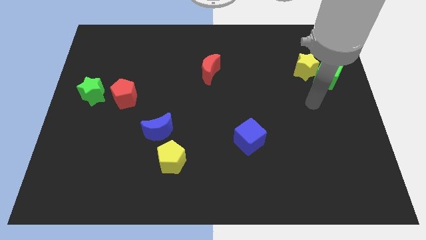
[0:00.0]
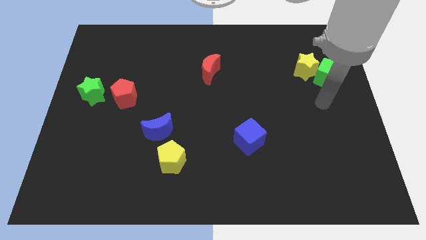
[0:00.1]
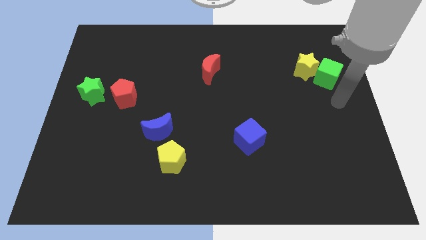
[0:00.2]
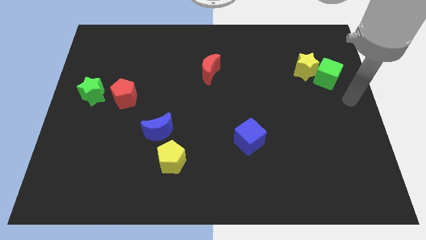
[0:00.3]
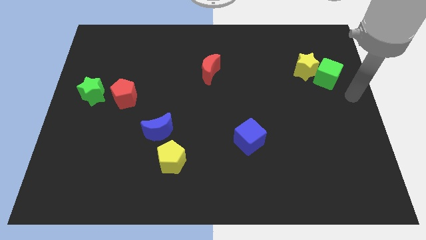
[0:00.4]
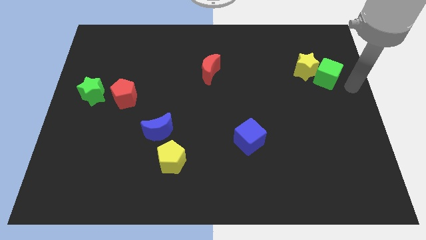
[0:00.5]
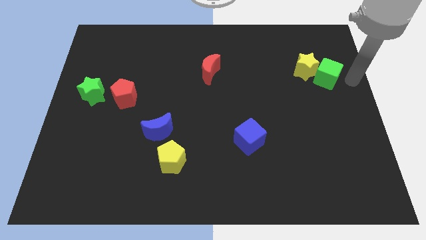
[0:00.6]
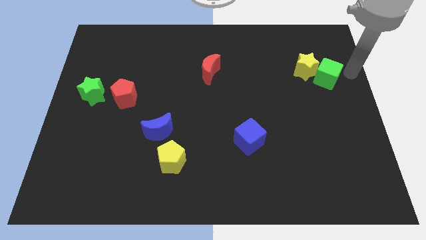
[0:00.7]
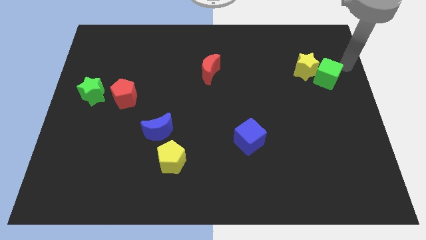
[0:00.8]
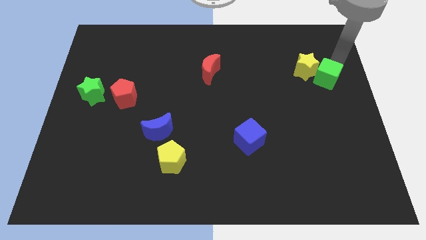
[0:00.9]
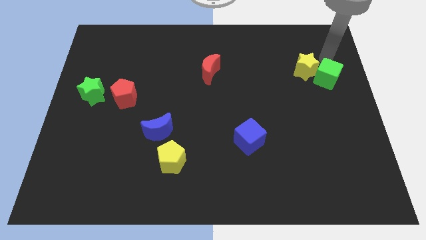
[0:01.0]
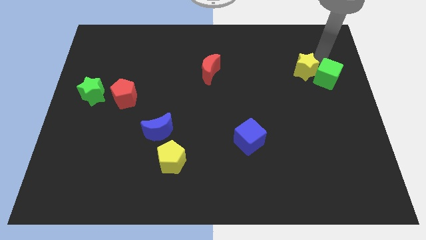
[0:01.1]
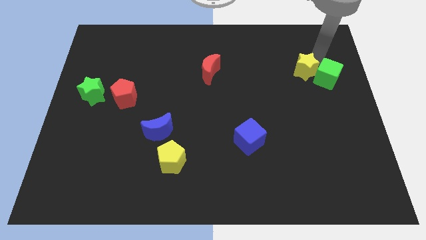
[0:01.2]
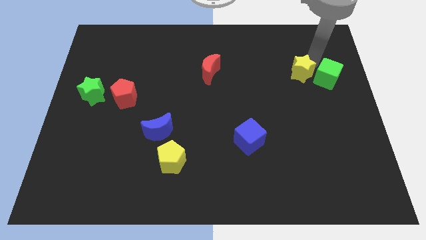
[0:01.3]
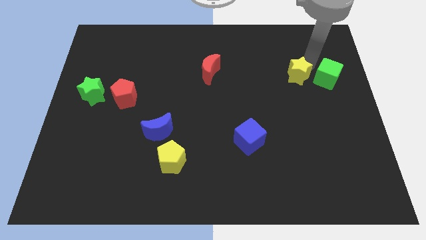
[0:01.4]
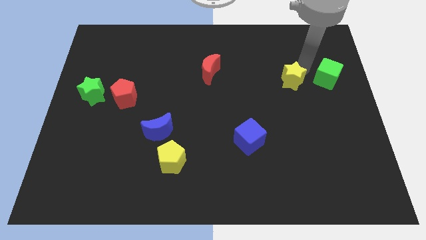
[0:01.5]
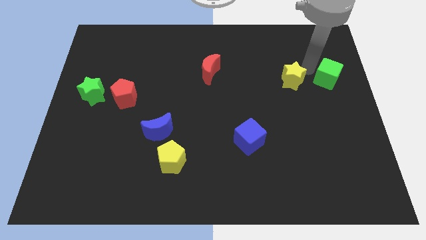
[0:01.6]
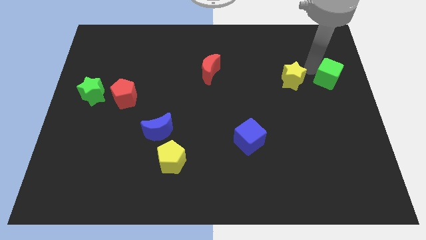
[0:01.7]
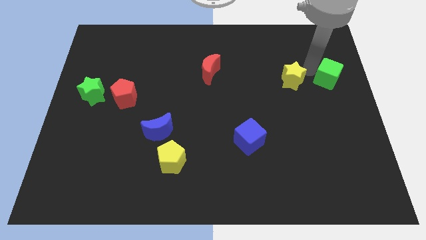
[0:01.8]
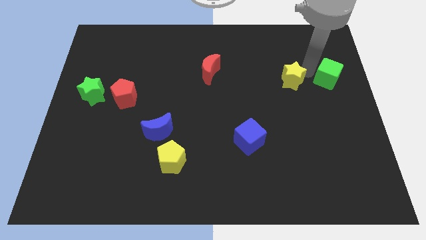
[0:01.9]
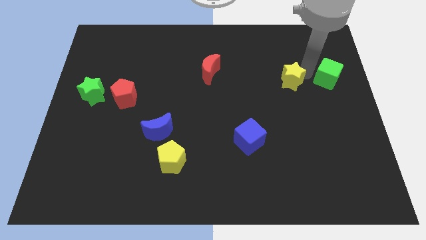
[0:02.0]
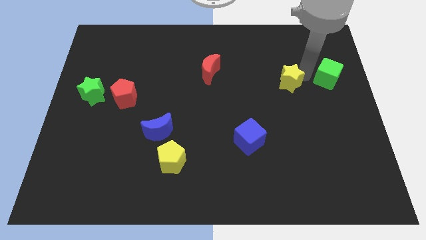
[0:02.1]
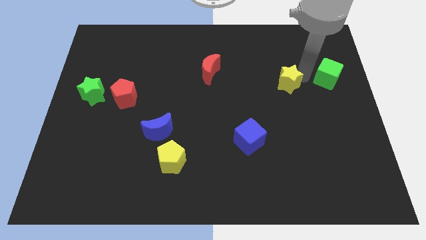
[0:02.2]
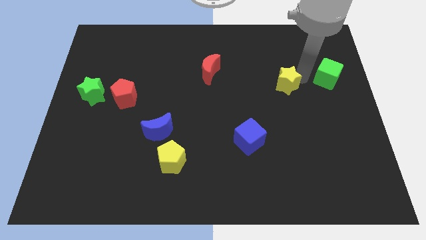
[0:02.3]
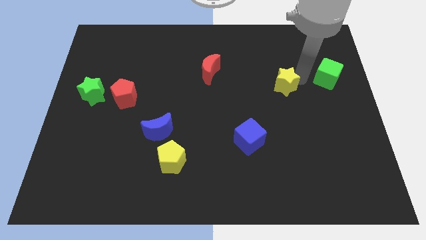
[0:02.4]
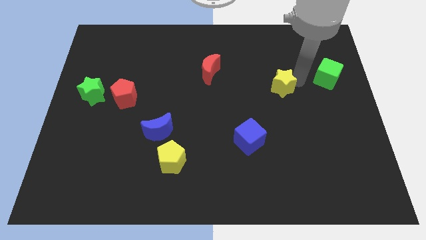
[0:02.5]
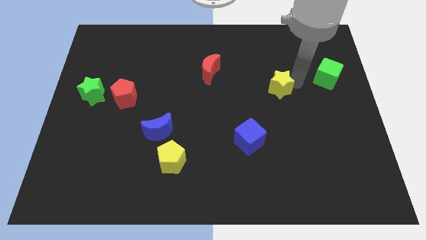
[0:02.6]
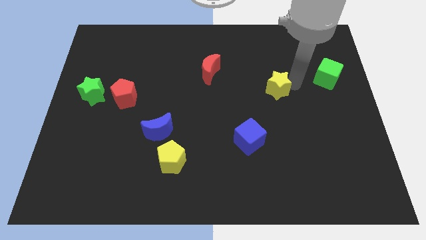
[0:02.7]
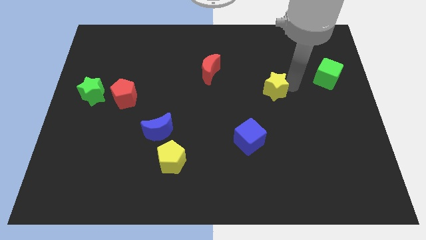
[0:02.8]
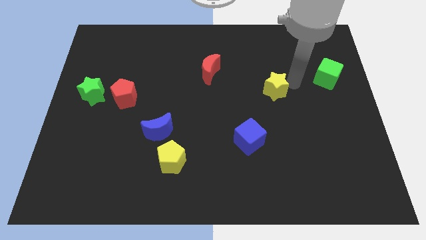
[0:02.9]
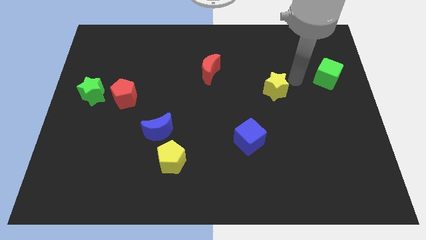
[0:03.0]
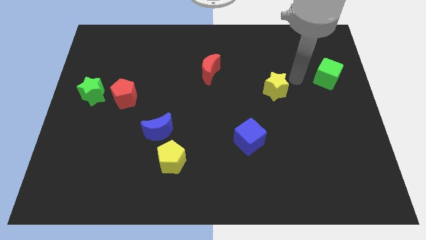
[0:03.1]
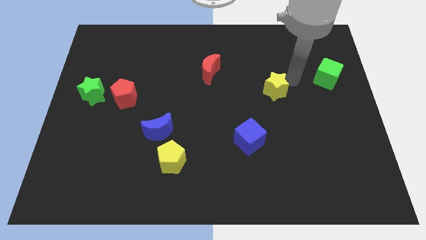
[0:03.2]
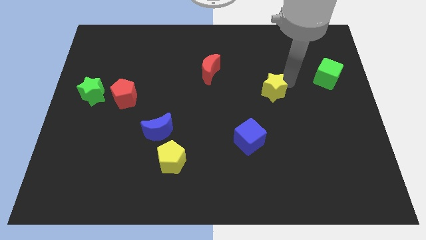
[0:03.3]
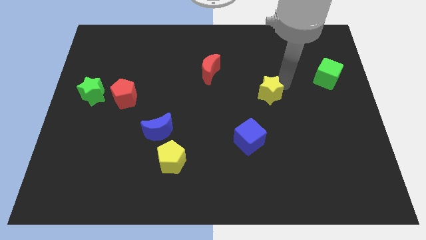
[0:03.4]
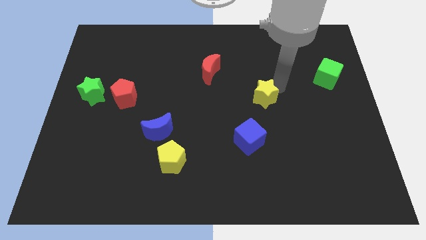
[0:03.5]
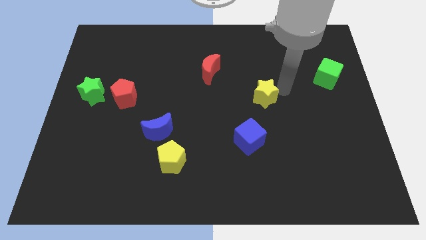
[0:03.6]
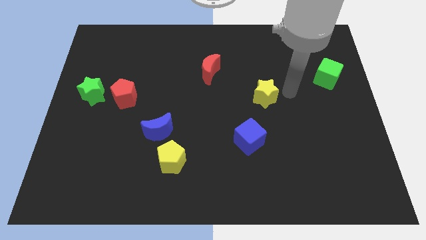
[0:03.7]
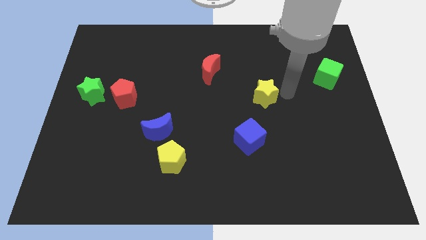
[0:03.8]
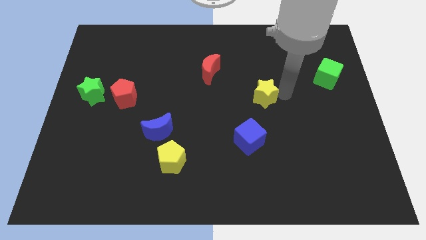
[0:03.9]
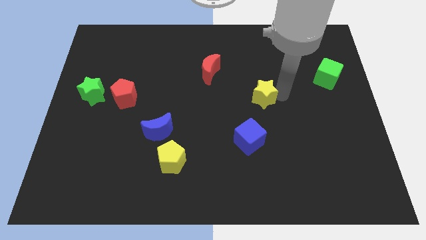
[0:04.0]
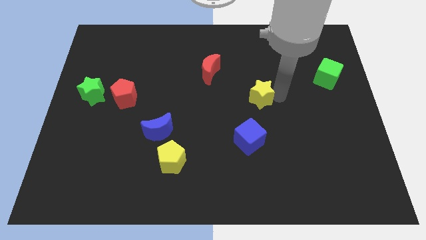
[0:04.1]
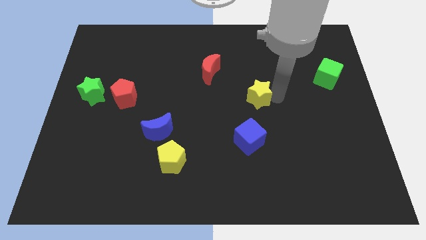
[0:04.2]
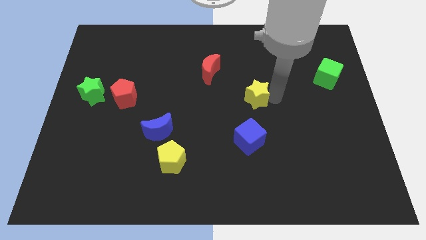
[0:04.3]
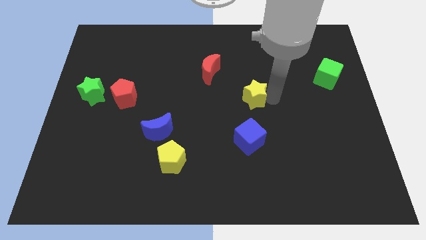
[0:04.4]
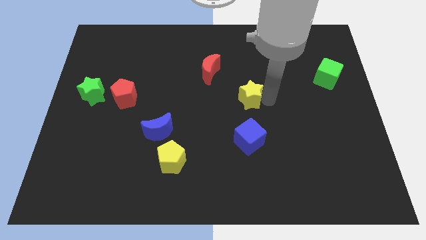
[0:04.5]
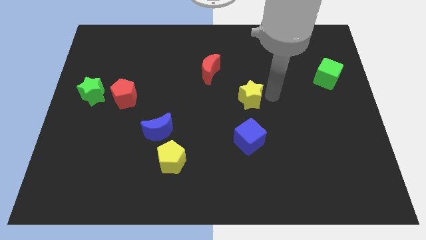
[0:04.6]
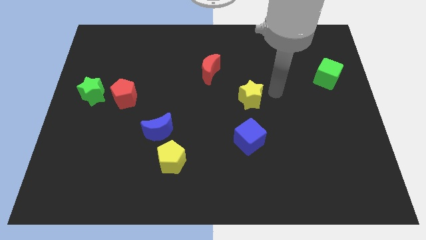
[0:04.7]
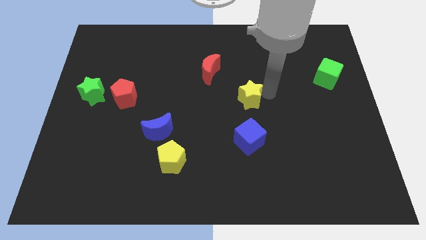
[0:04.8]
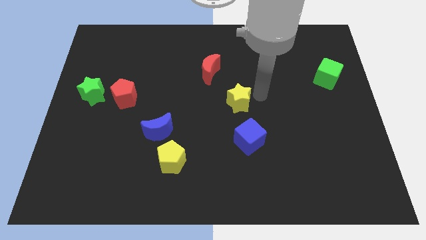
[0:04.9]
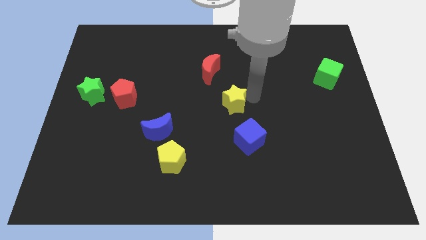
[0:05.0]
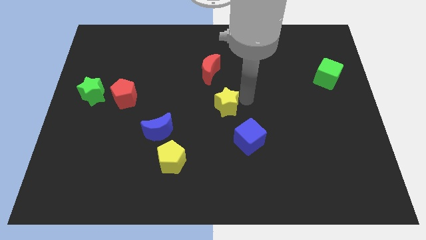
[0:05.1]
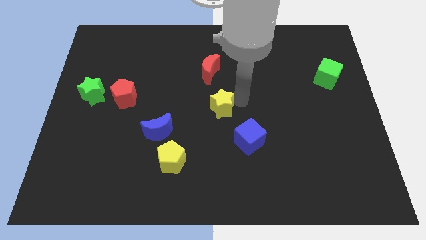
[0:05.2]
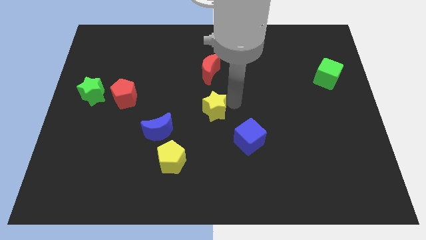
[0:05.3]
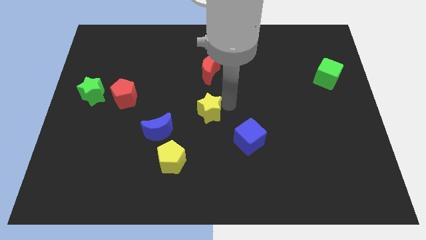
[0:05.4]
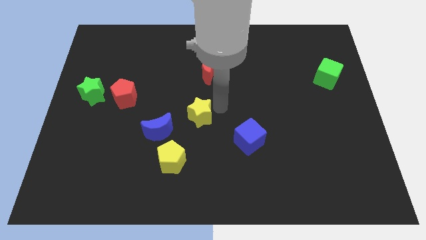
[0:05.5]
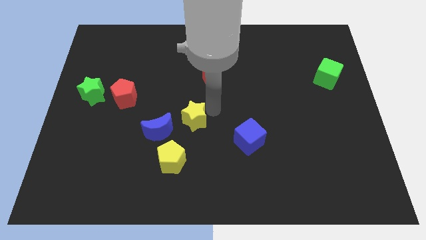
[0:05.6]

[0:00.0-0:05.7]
slide the yellow star above the yellow pentagon

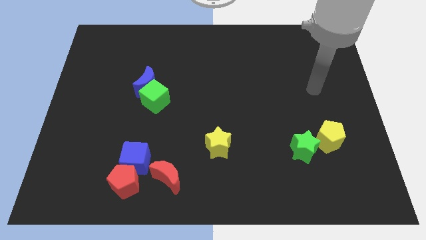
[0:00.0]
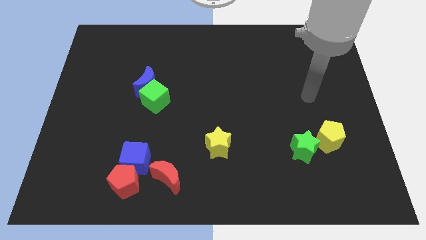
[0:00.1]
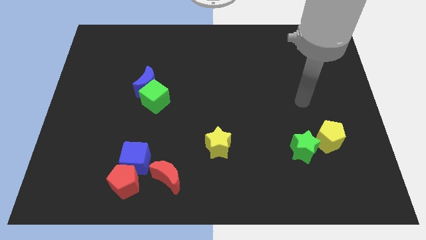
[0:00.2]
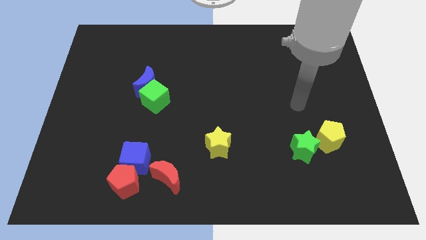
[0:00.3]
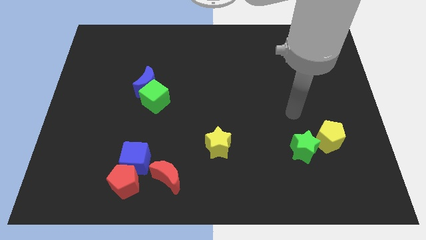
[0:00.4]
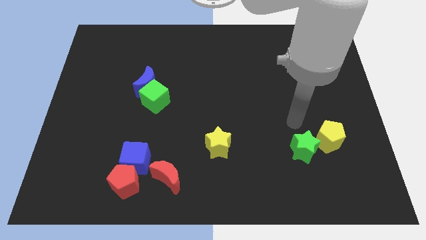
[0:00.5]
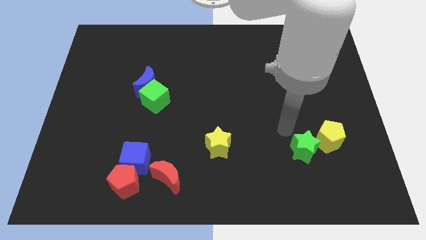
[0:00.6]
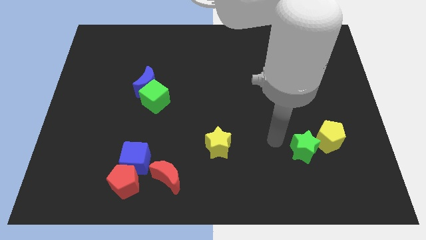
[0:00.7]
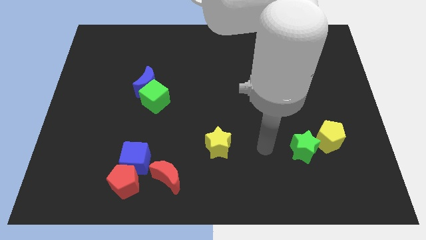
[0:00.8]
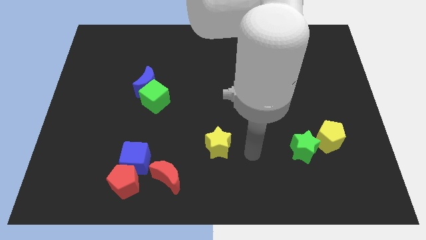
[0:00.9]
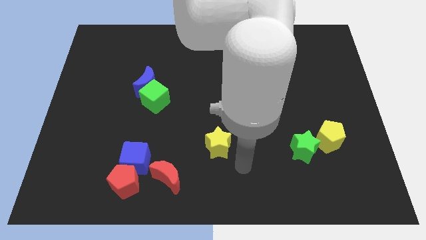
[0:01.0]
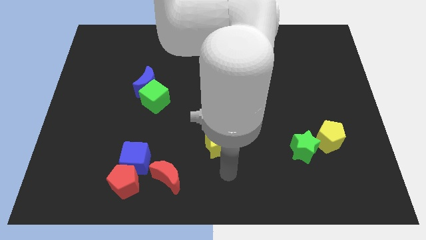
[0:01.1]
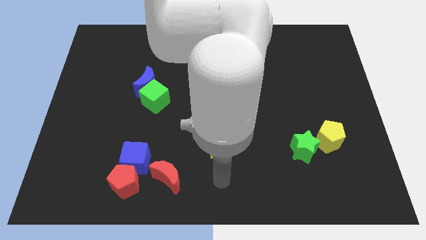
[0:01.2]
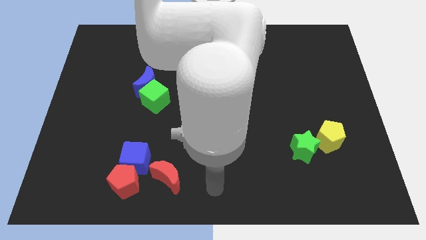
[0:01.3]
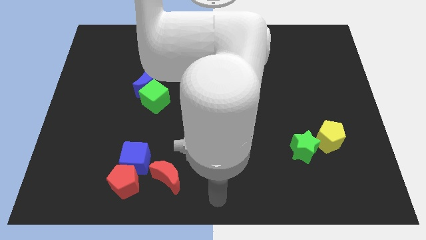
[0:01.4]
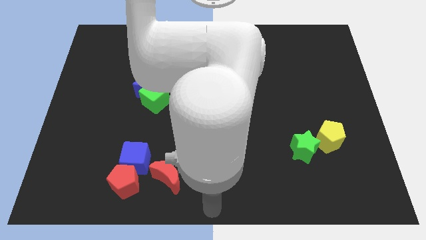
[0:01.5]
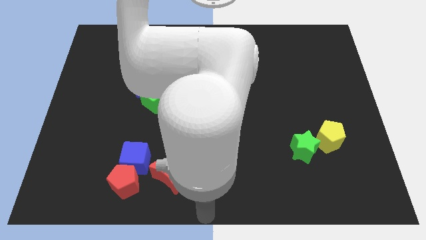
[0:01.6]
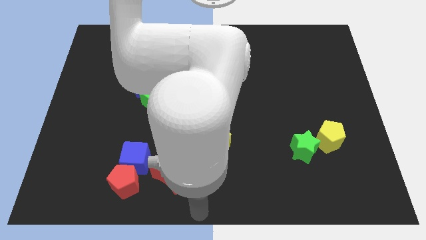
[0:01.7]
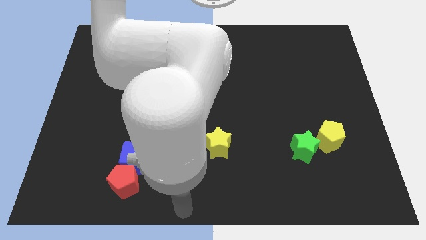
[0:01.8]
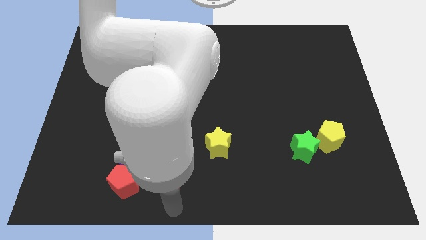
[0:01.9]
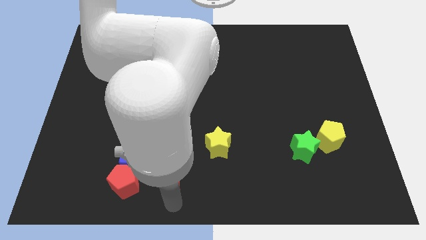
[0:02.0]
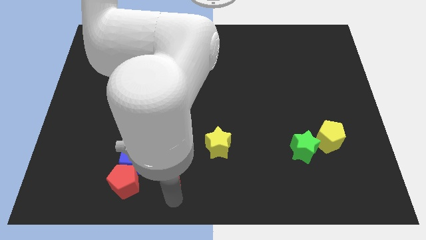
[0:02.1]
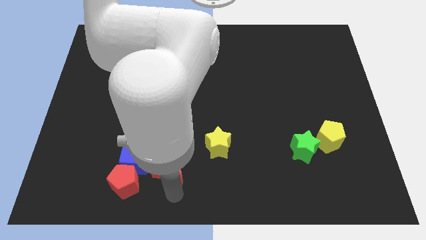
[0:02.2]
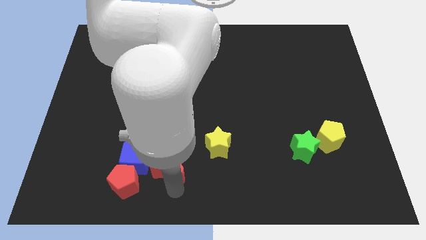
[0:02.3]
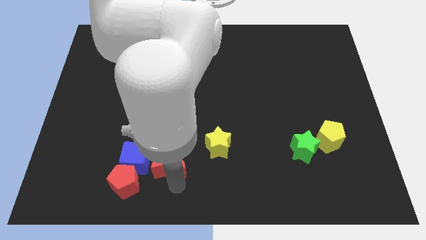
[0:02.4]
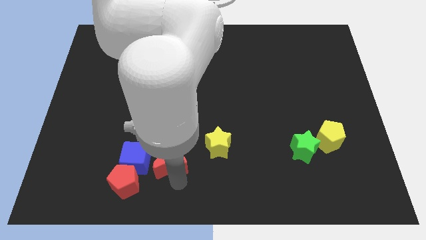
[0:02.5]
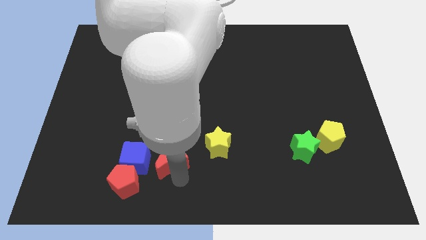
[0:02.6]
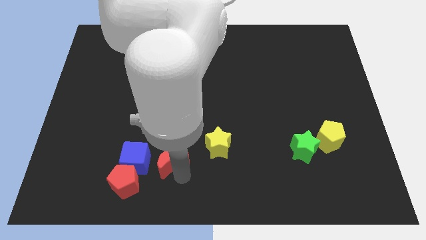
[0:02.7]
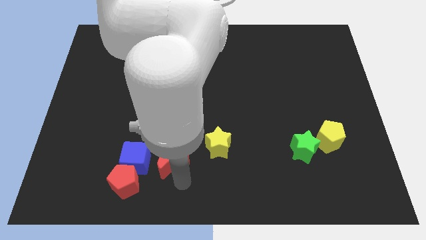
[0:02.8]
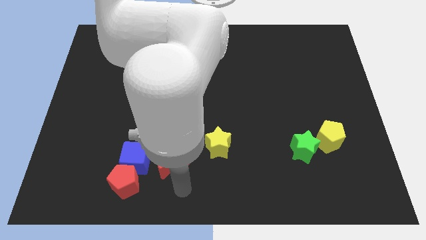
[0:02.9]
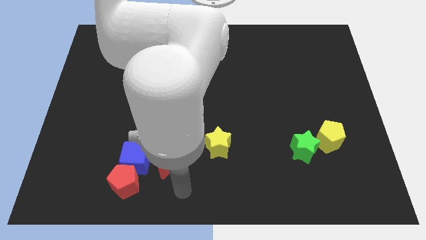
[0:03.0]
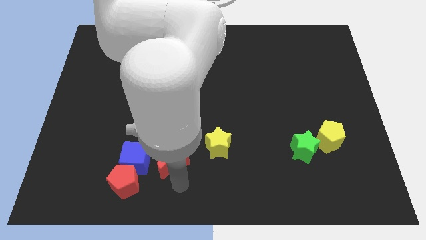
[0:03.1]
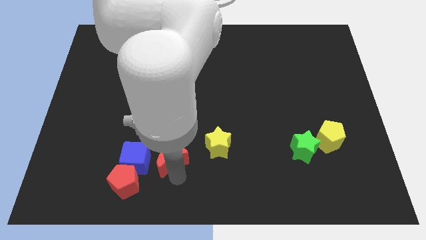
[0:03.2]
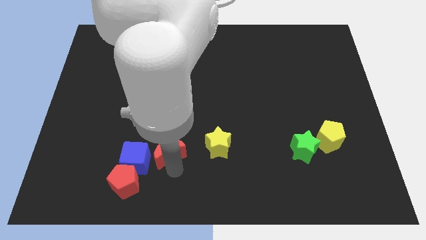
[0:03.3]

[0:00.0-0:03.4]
slide the red moon diagonally up and to the right of the blue cube
